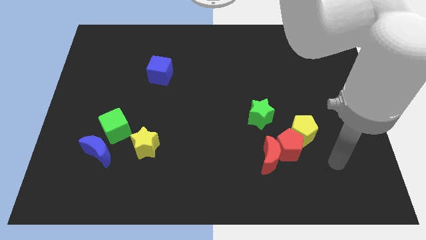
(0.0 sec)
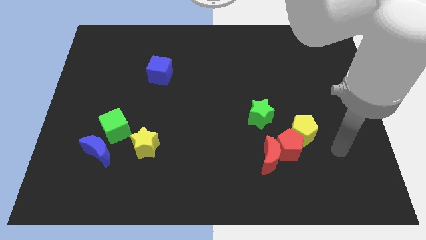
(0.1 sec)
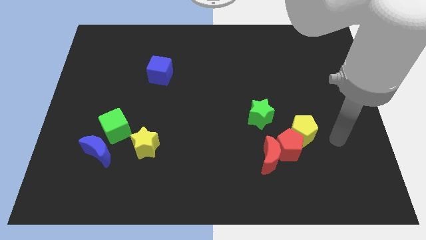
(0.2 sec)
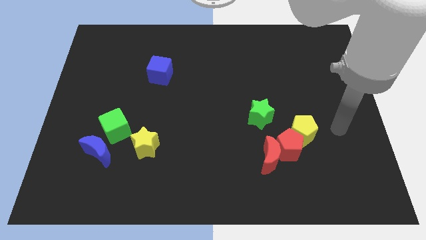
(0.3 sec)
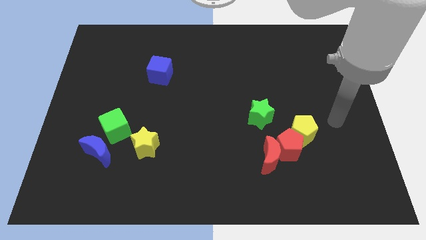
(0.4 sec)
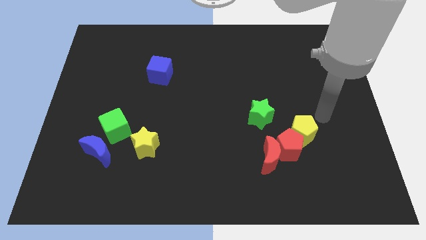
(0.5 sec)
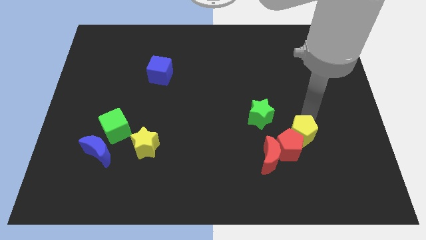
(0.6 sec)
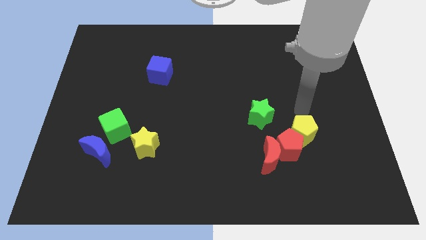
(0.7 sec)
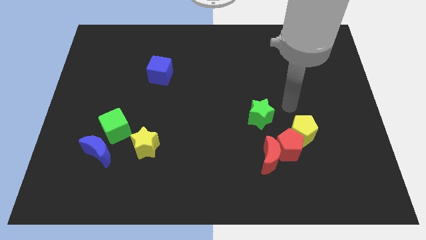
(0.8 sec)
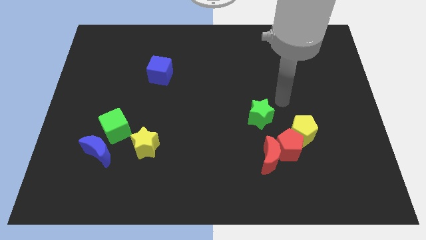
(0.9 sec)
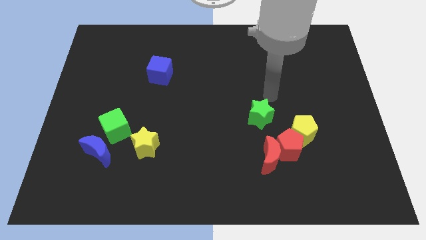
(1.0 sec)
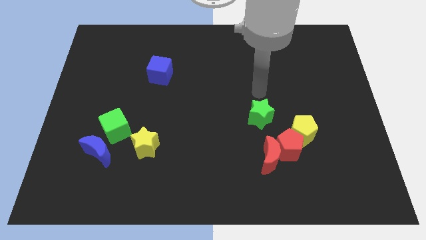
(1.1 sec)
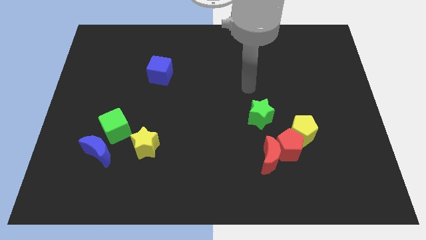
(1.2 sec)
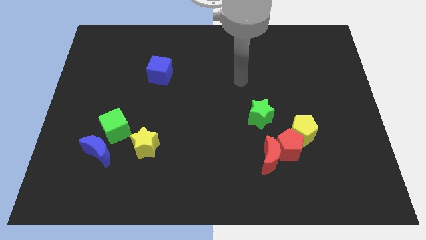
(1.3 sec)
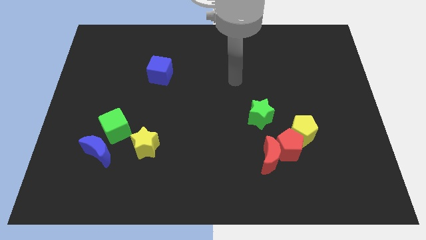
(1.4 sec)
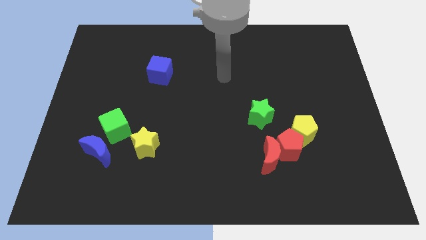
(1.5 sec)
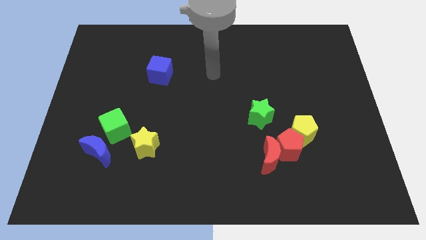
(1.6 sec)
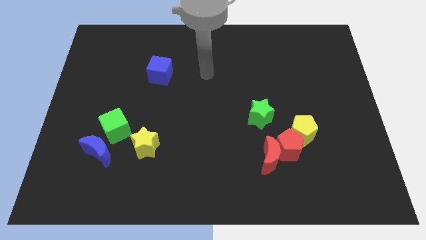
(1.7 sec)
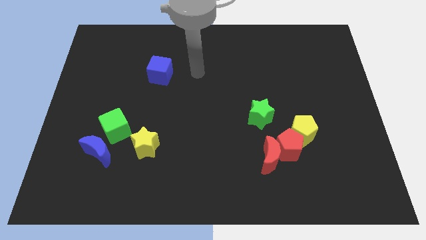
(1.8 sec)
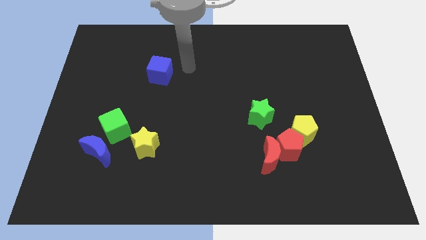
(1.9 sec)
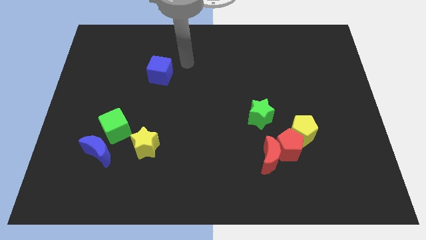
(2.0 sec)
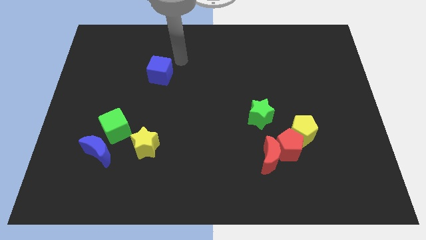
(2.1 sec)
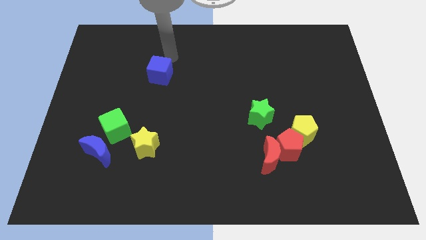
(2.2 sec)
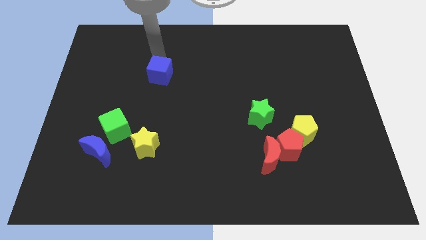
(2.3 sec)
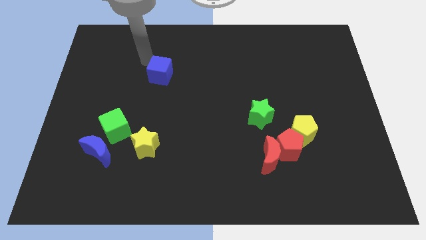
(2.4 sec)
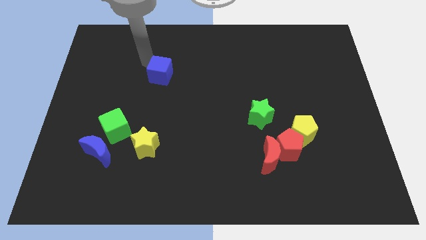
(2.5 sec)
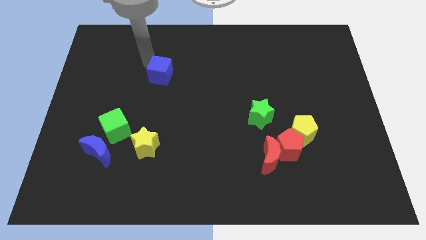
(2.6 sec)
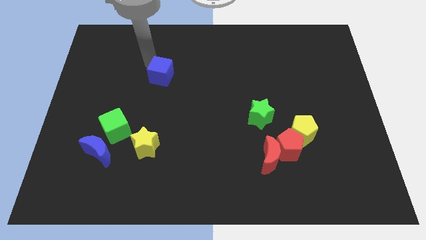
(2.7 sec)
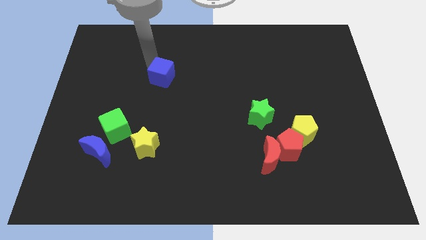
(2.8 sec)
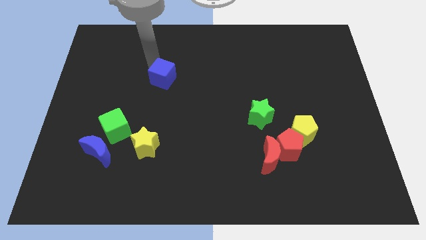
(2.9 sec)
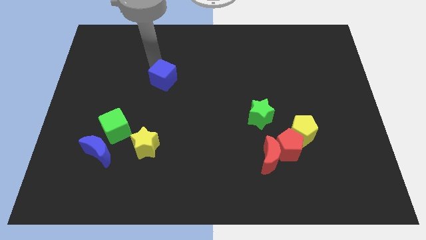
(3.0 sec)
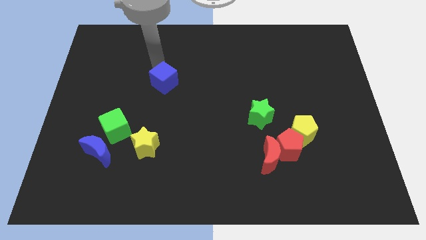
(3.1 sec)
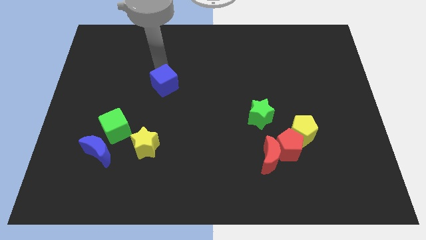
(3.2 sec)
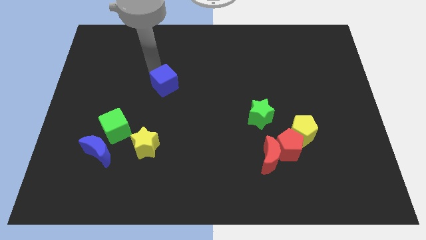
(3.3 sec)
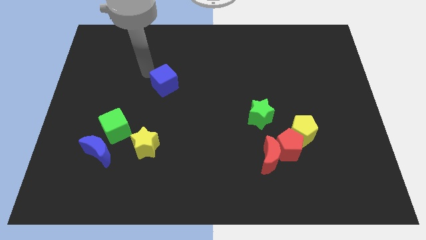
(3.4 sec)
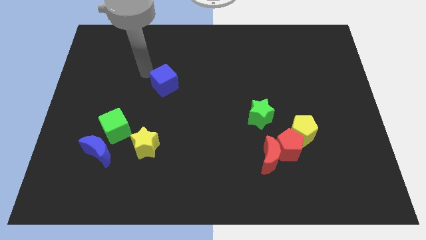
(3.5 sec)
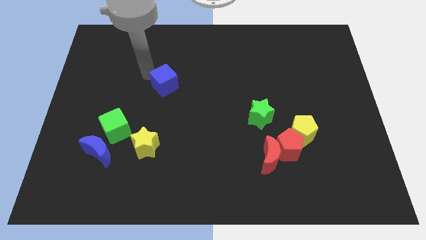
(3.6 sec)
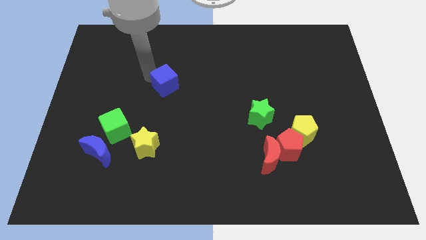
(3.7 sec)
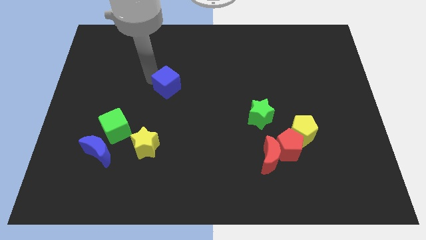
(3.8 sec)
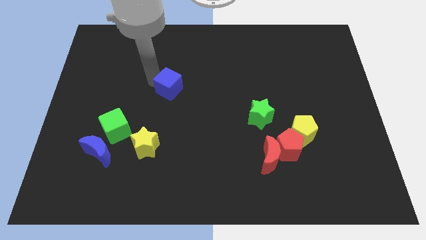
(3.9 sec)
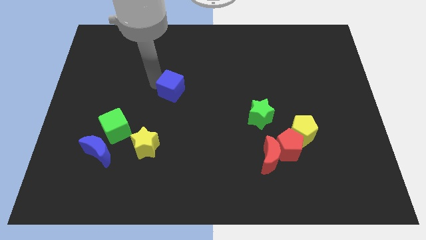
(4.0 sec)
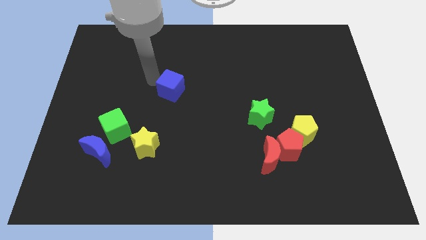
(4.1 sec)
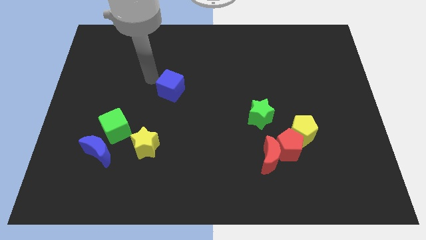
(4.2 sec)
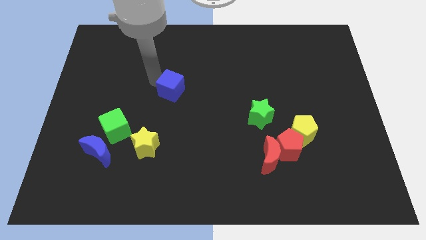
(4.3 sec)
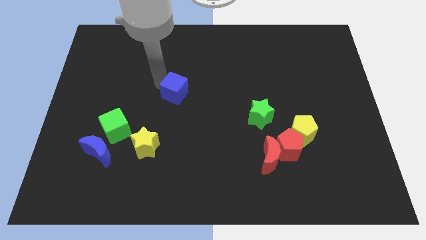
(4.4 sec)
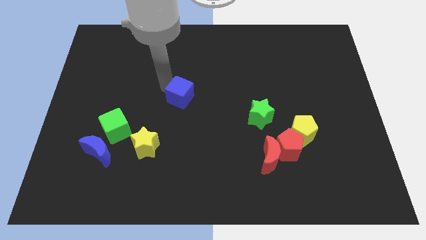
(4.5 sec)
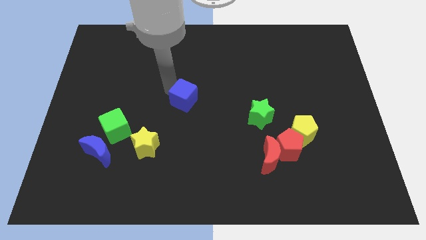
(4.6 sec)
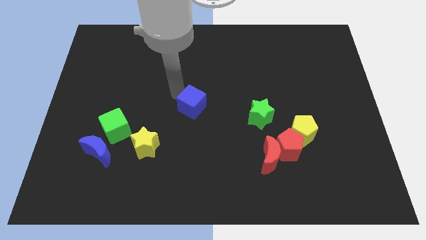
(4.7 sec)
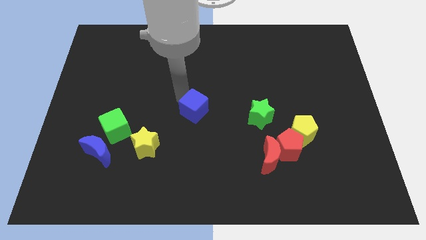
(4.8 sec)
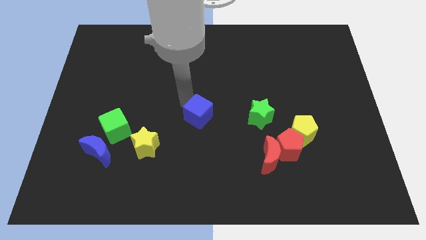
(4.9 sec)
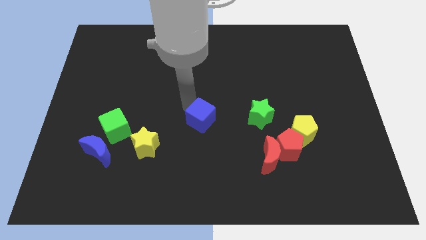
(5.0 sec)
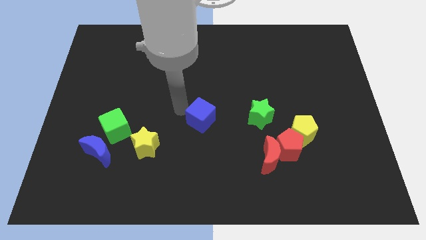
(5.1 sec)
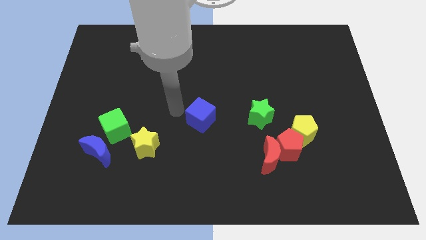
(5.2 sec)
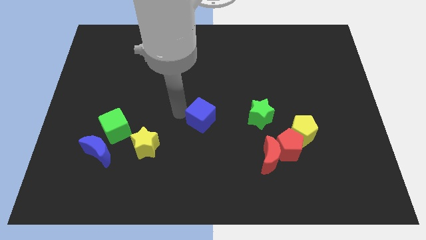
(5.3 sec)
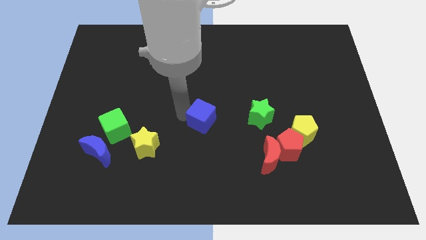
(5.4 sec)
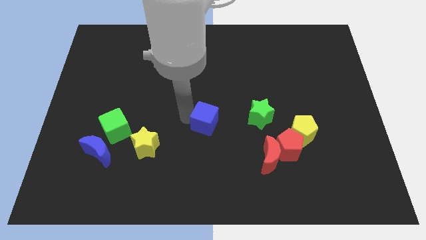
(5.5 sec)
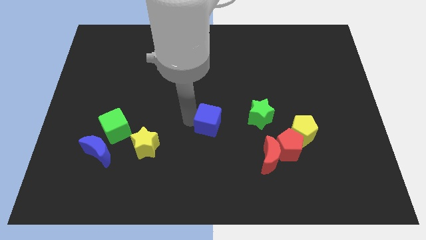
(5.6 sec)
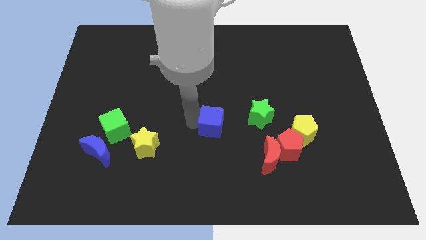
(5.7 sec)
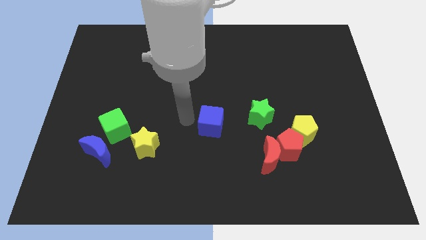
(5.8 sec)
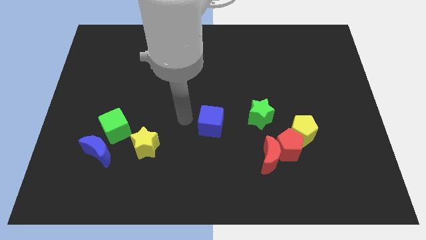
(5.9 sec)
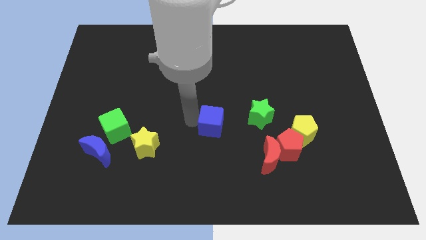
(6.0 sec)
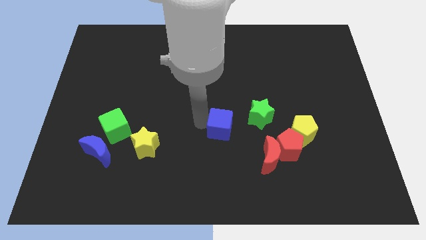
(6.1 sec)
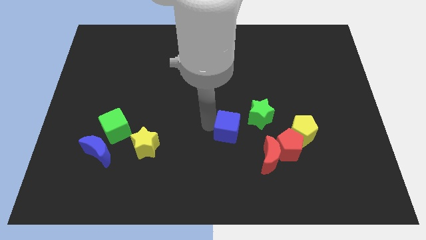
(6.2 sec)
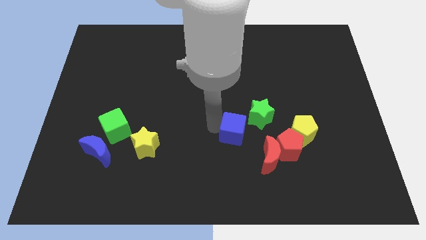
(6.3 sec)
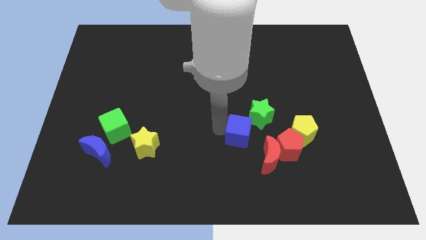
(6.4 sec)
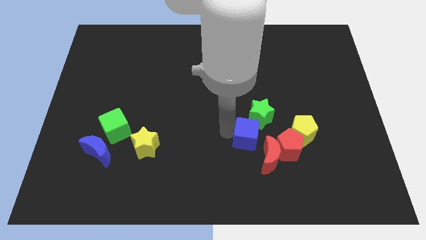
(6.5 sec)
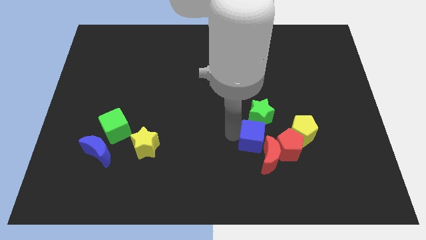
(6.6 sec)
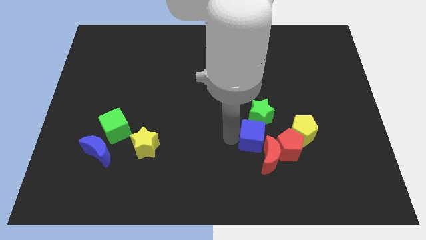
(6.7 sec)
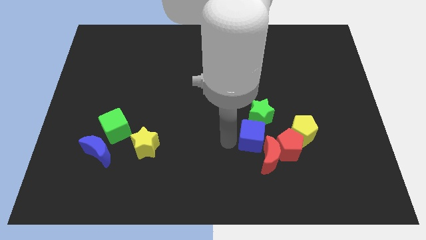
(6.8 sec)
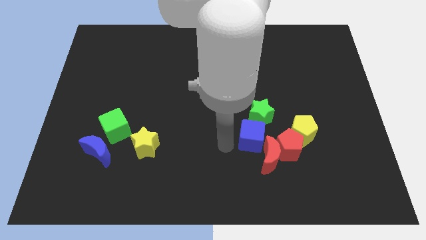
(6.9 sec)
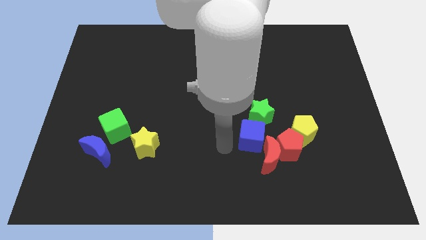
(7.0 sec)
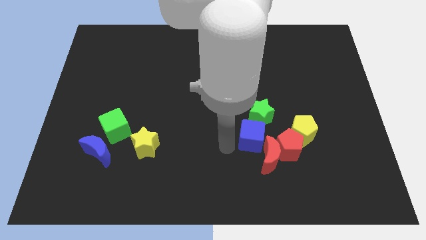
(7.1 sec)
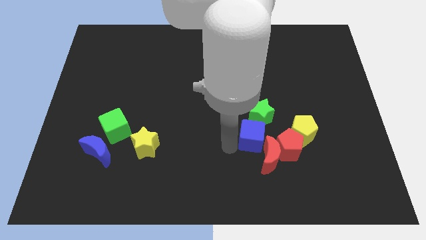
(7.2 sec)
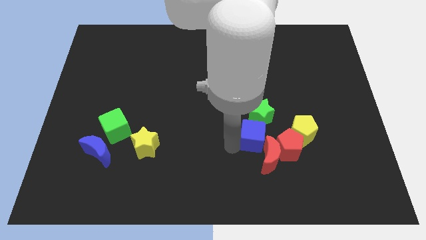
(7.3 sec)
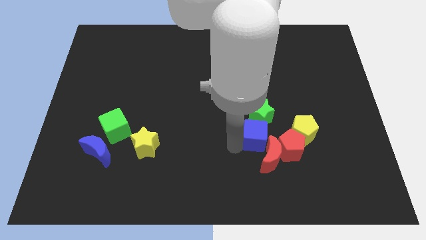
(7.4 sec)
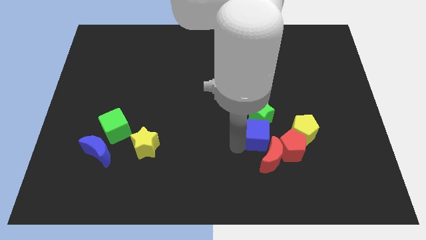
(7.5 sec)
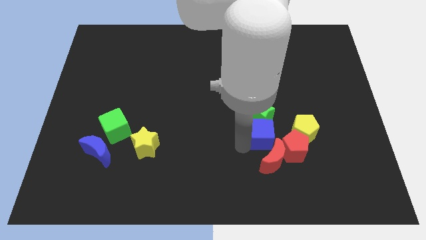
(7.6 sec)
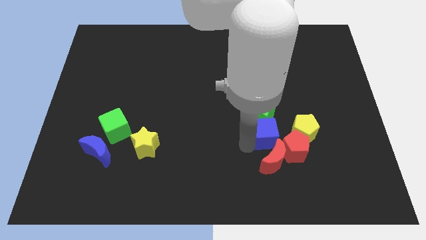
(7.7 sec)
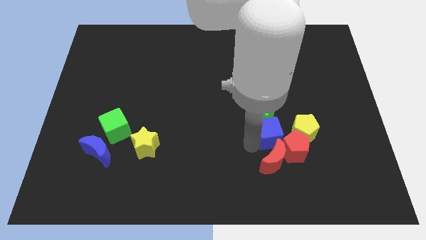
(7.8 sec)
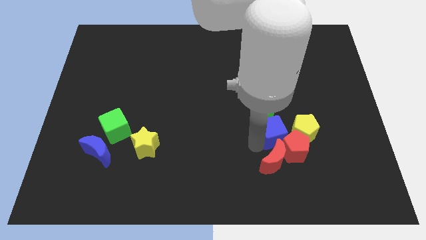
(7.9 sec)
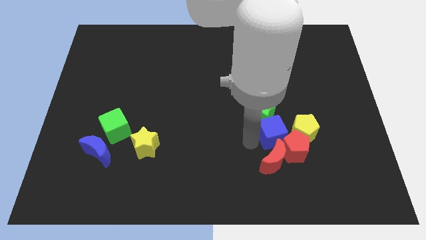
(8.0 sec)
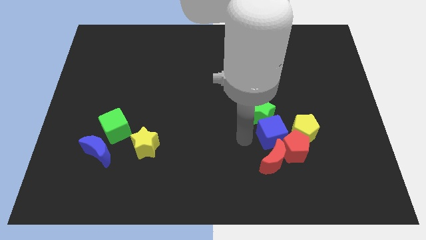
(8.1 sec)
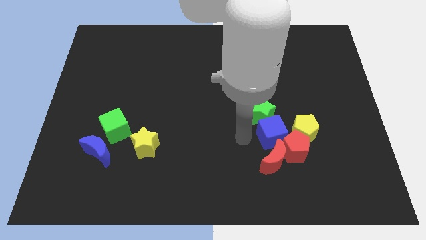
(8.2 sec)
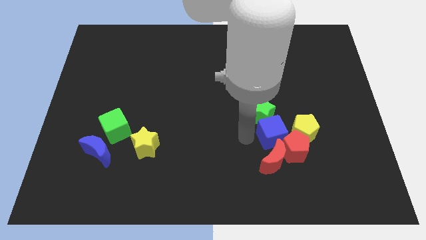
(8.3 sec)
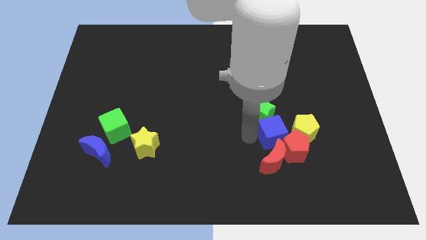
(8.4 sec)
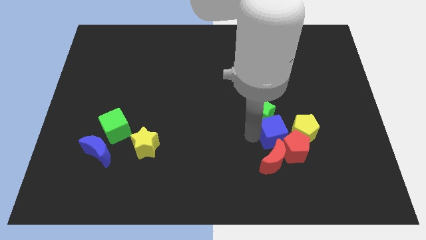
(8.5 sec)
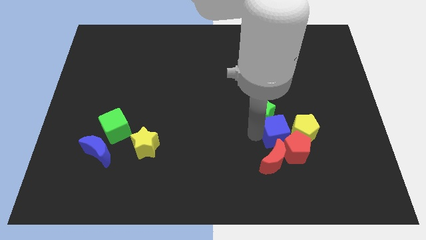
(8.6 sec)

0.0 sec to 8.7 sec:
slide the blue cube next to the yellow pentagon
